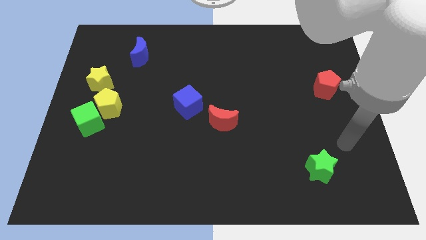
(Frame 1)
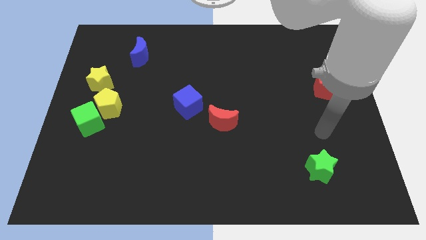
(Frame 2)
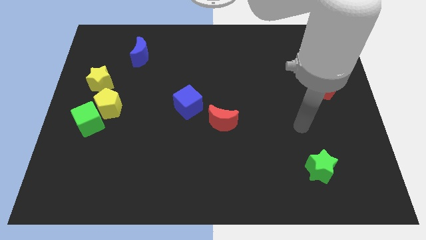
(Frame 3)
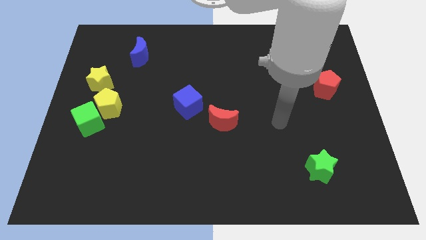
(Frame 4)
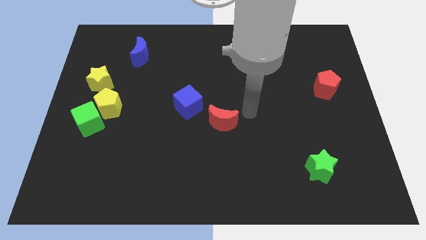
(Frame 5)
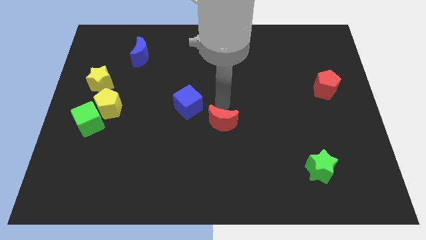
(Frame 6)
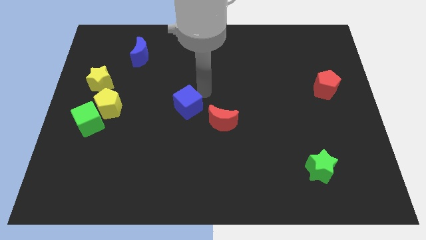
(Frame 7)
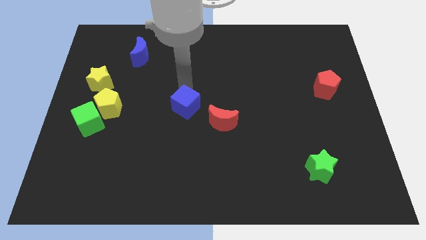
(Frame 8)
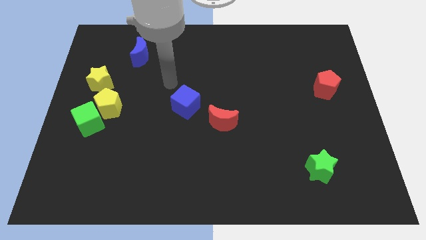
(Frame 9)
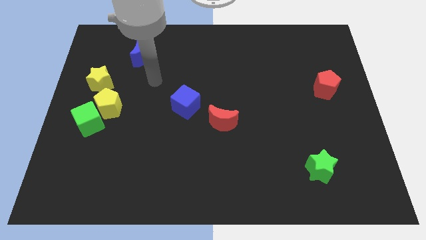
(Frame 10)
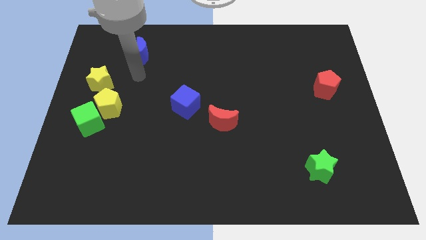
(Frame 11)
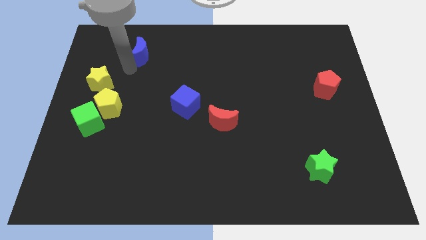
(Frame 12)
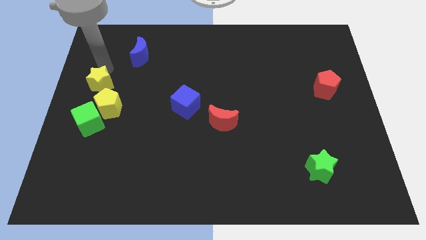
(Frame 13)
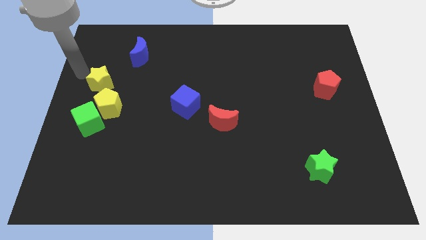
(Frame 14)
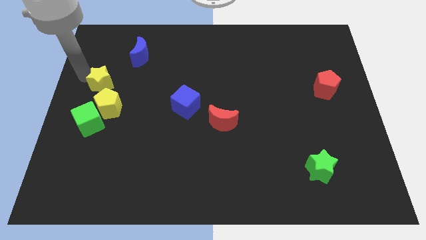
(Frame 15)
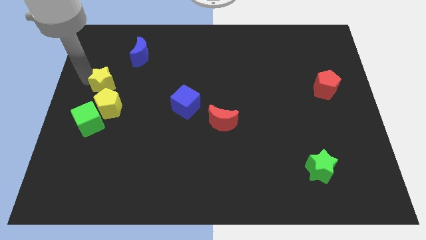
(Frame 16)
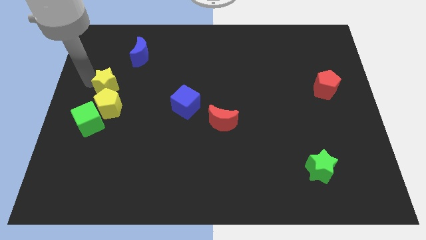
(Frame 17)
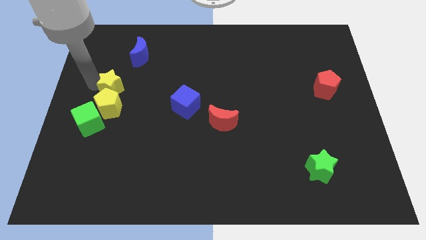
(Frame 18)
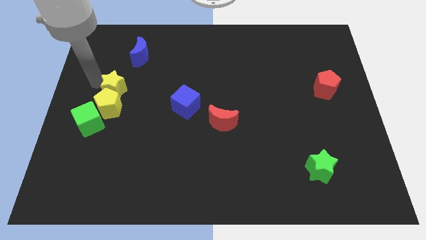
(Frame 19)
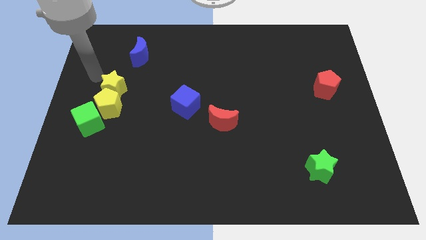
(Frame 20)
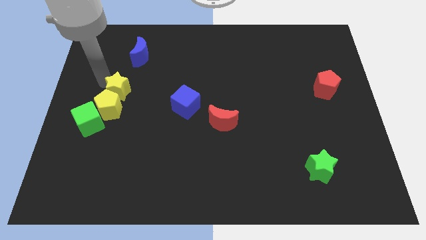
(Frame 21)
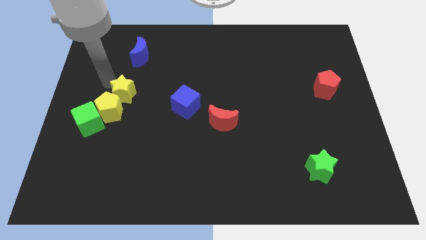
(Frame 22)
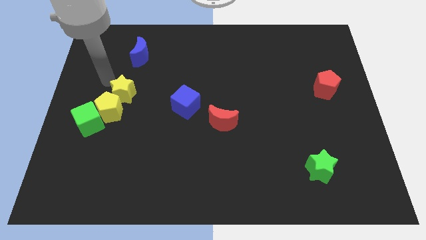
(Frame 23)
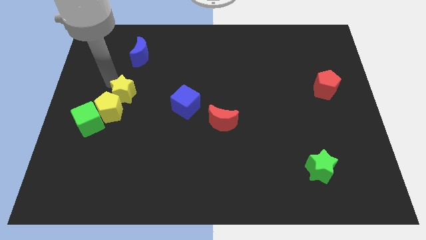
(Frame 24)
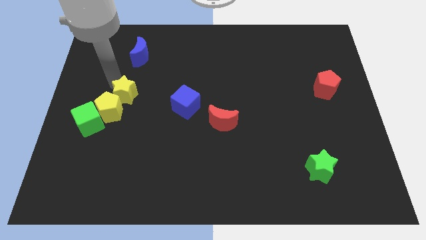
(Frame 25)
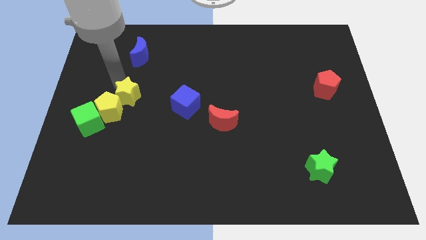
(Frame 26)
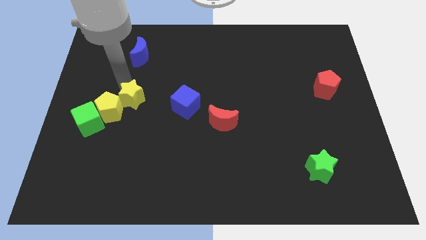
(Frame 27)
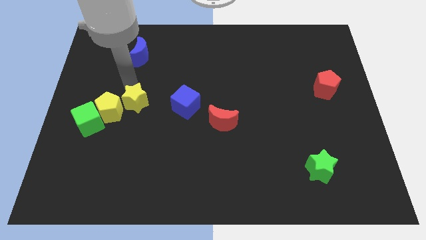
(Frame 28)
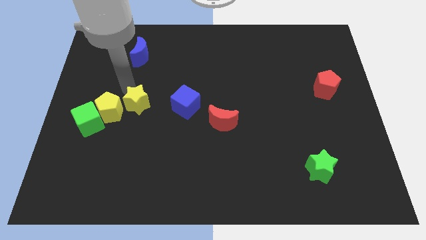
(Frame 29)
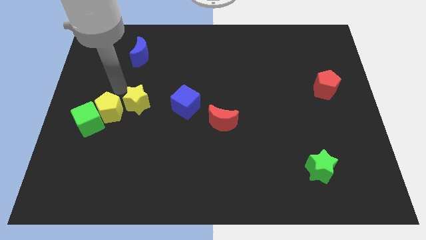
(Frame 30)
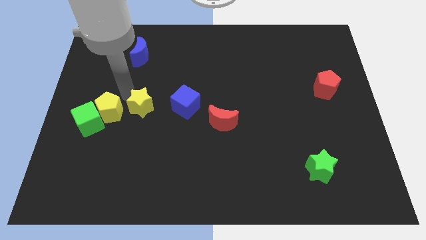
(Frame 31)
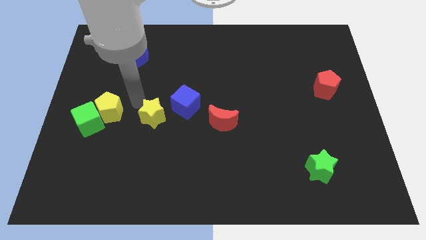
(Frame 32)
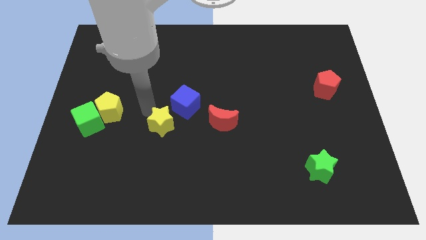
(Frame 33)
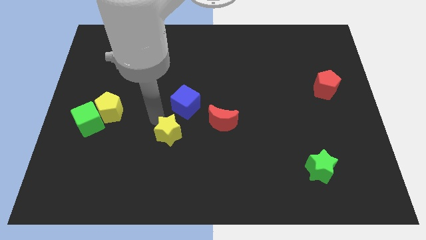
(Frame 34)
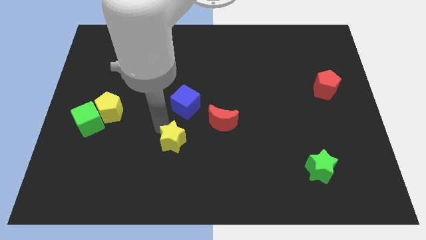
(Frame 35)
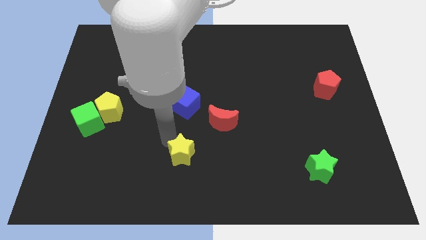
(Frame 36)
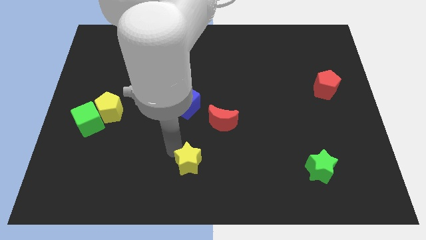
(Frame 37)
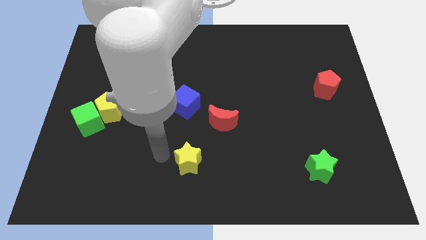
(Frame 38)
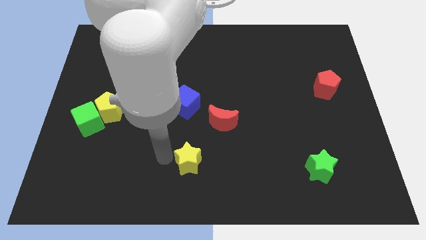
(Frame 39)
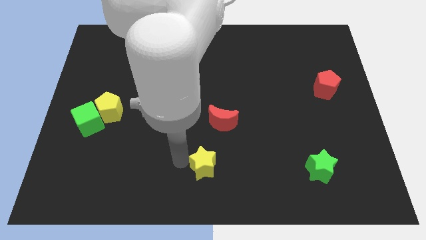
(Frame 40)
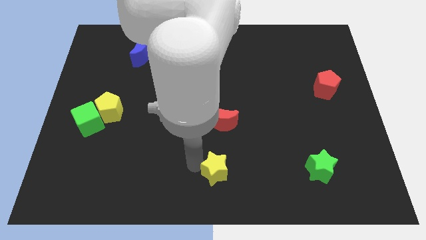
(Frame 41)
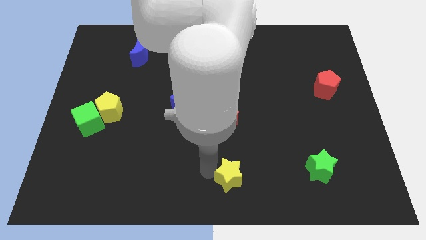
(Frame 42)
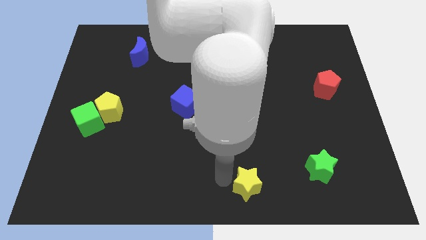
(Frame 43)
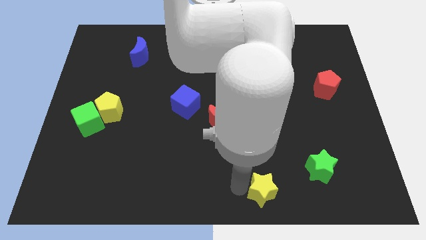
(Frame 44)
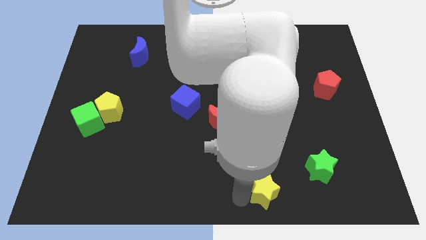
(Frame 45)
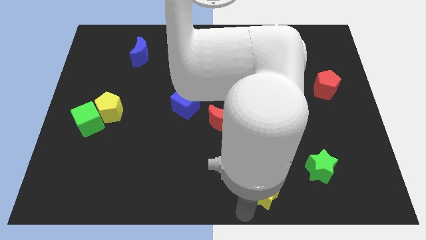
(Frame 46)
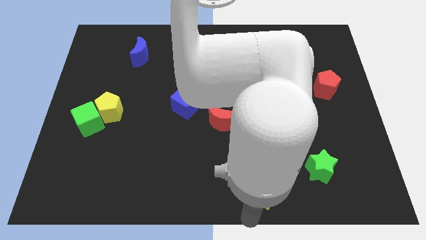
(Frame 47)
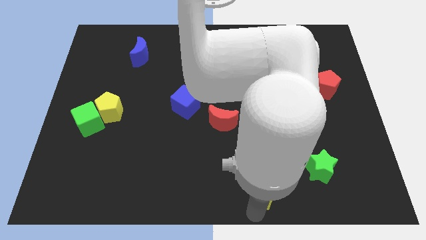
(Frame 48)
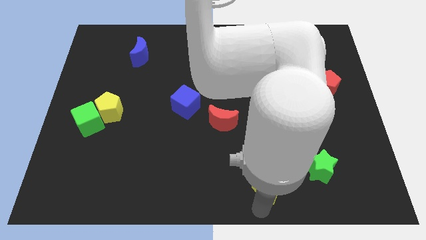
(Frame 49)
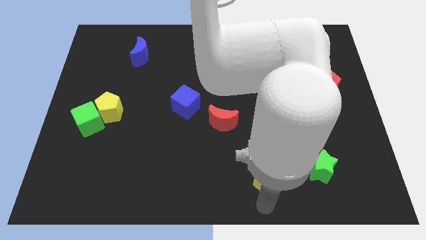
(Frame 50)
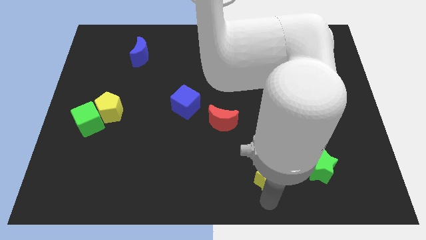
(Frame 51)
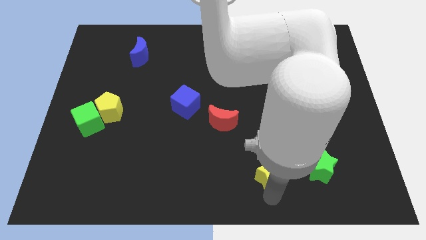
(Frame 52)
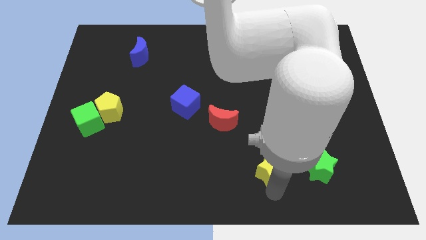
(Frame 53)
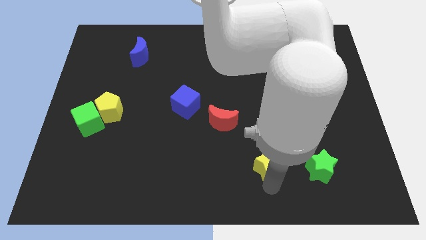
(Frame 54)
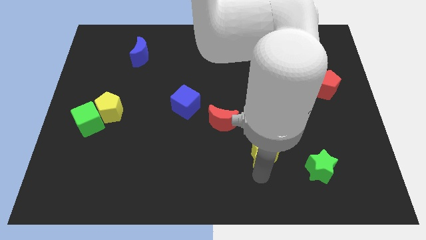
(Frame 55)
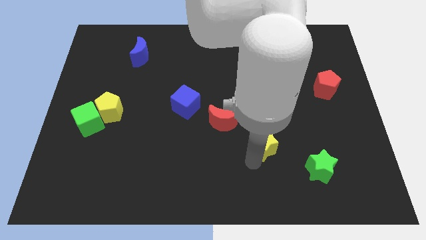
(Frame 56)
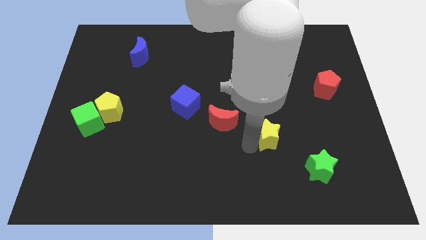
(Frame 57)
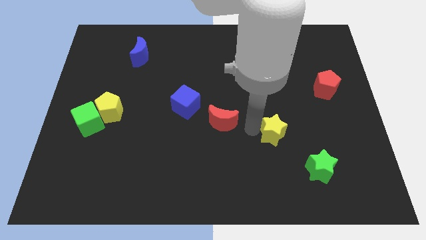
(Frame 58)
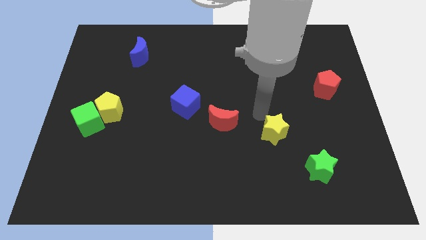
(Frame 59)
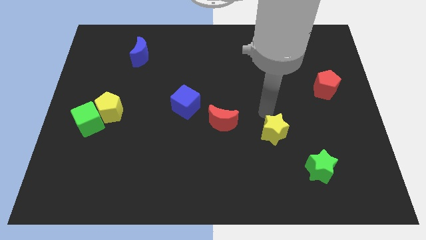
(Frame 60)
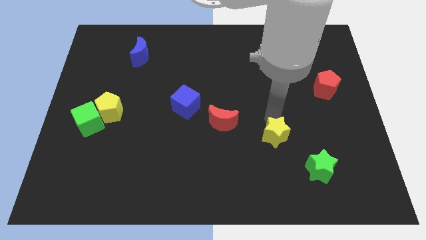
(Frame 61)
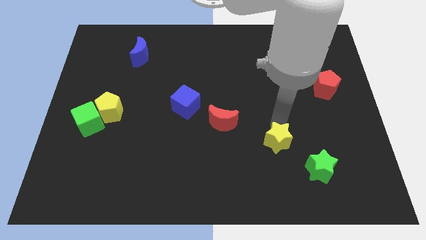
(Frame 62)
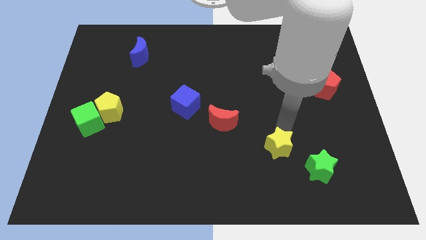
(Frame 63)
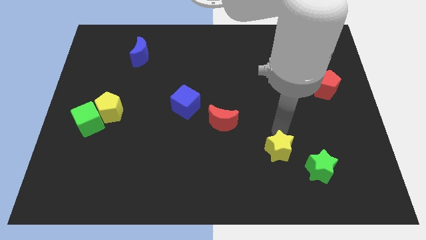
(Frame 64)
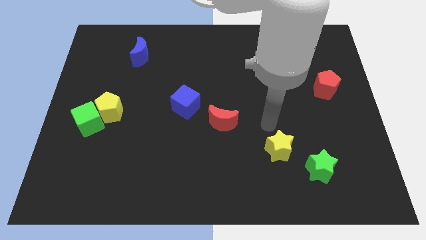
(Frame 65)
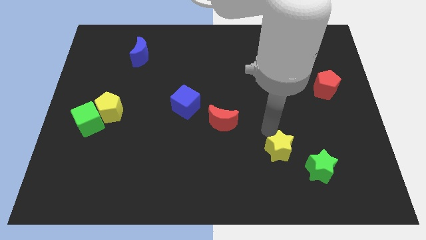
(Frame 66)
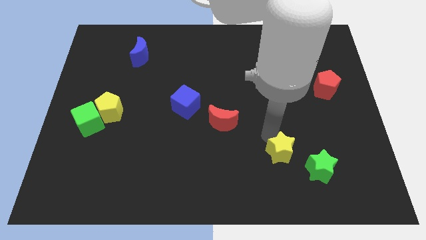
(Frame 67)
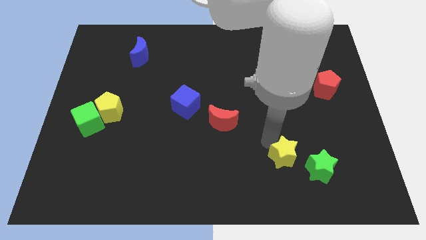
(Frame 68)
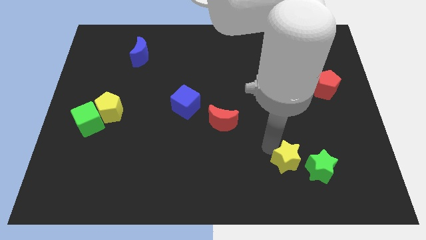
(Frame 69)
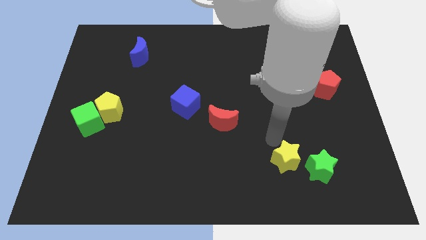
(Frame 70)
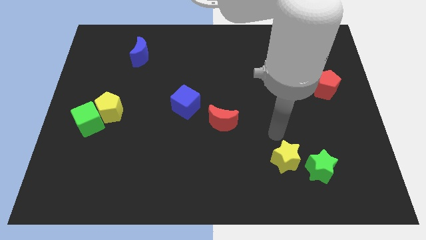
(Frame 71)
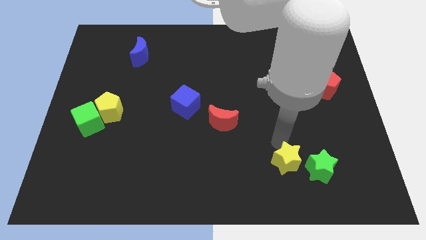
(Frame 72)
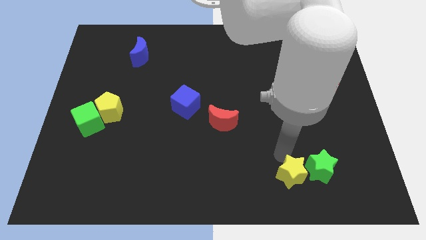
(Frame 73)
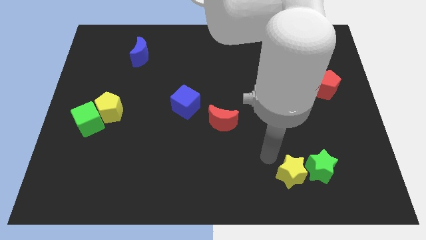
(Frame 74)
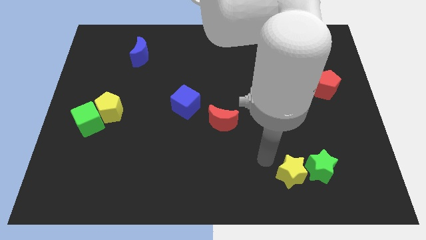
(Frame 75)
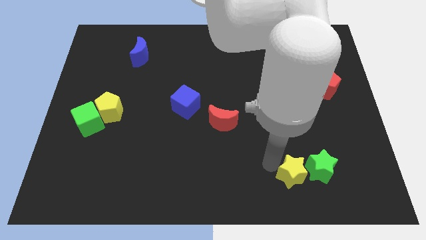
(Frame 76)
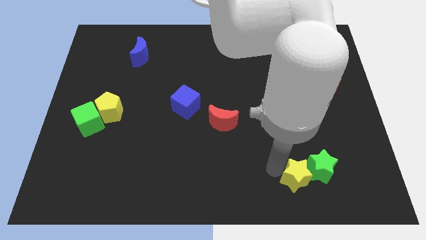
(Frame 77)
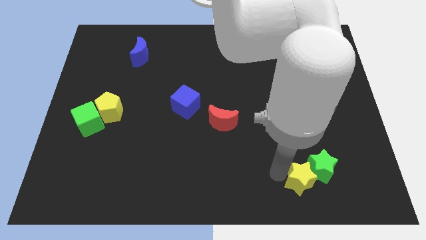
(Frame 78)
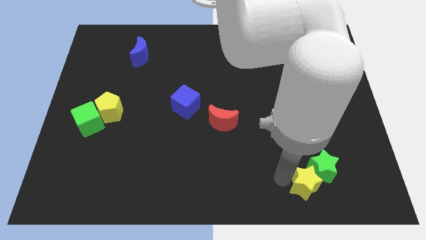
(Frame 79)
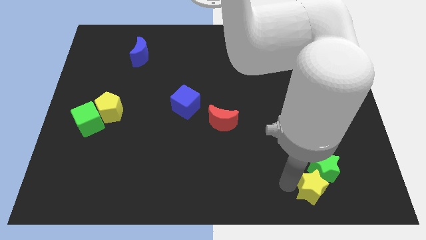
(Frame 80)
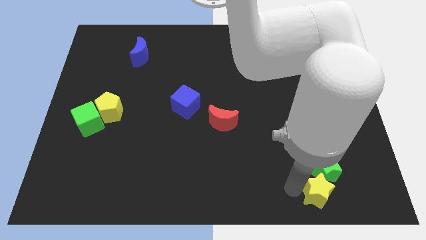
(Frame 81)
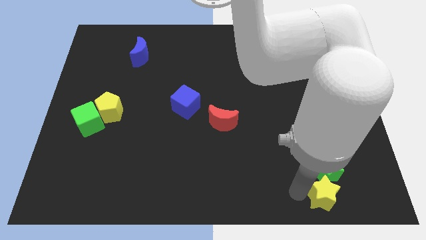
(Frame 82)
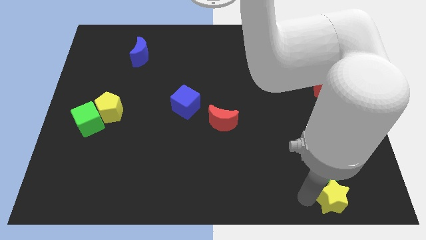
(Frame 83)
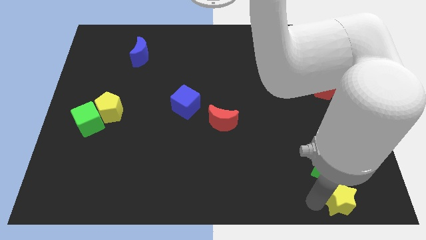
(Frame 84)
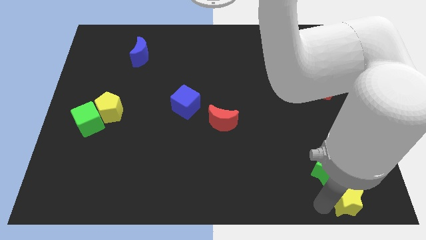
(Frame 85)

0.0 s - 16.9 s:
slide the yellow star to the bottom right of the board
